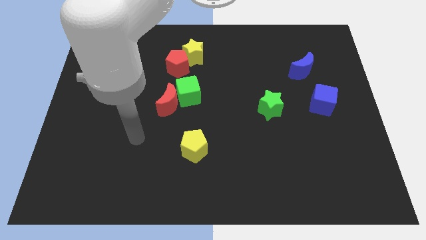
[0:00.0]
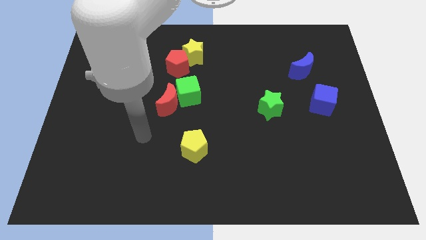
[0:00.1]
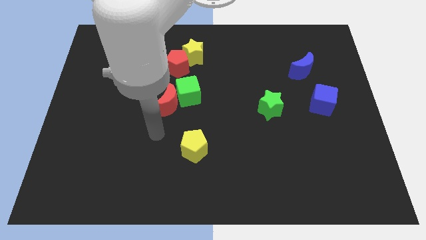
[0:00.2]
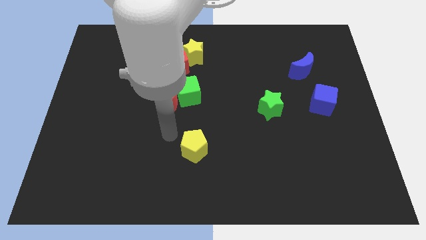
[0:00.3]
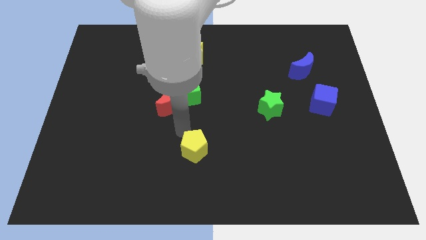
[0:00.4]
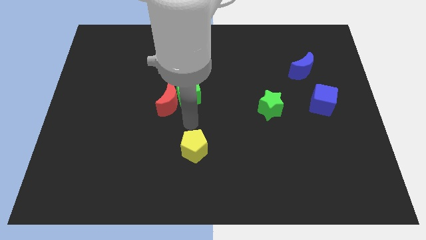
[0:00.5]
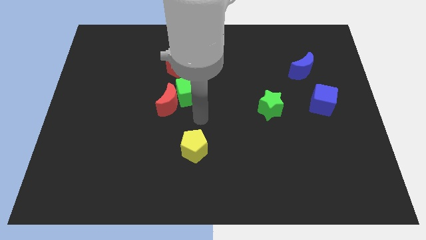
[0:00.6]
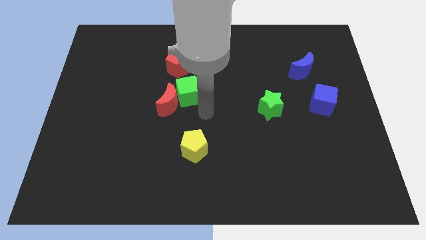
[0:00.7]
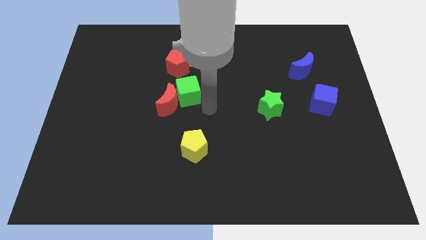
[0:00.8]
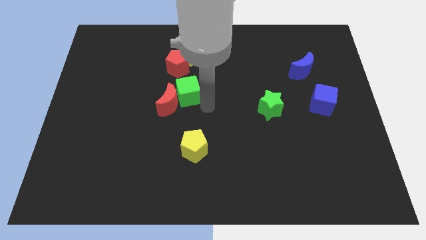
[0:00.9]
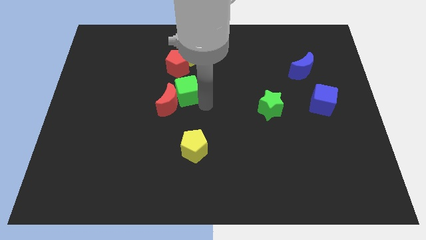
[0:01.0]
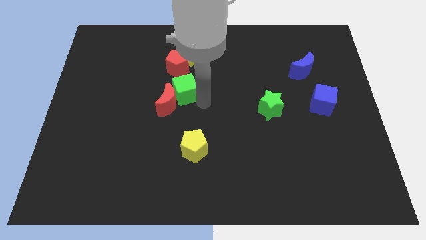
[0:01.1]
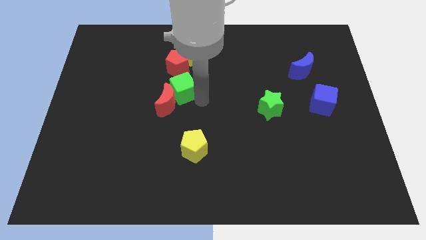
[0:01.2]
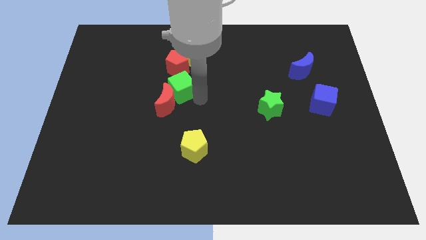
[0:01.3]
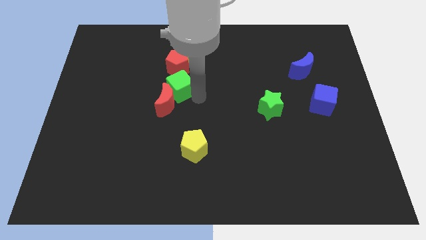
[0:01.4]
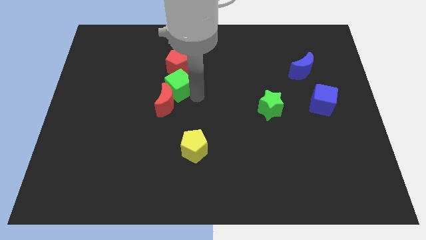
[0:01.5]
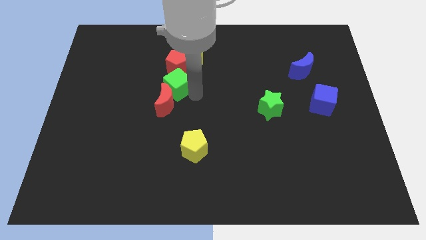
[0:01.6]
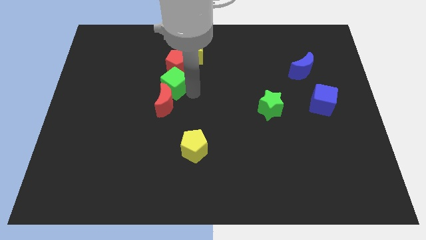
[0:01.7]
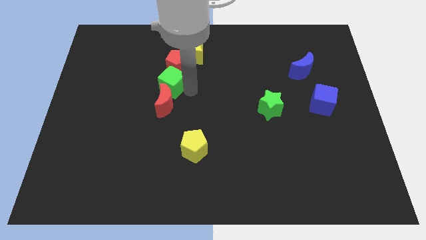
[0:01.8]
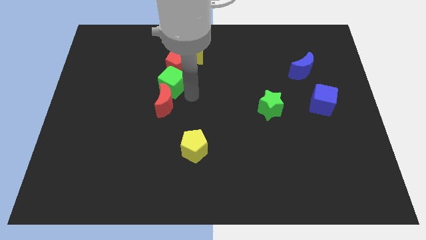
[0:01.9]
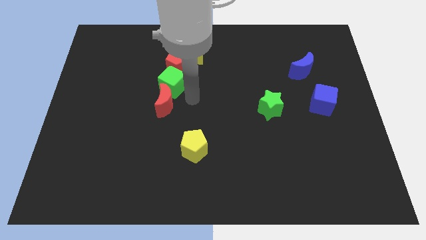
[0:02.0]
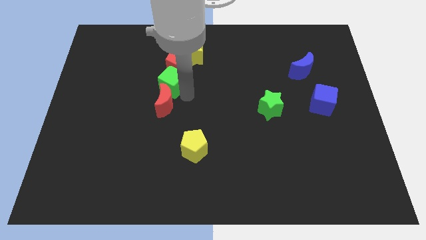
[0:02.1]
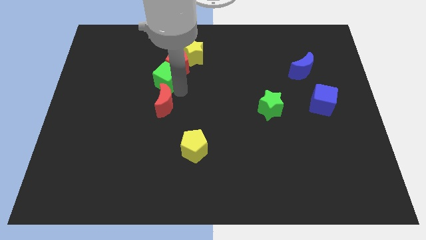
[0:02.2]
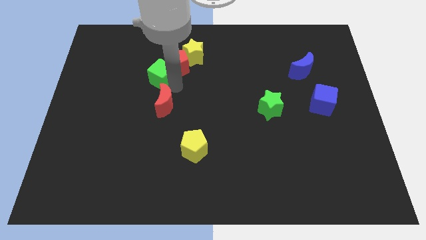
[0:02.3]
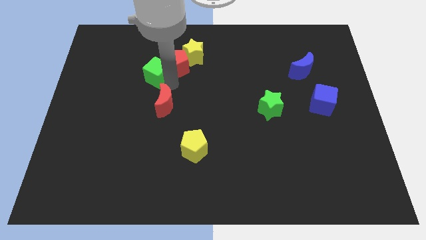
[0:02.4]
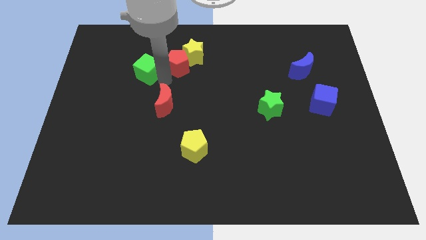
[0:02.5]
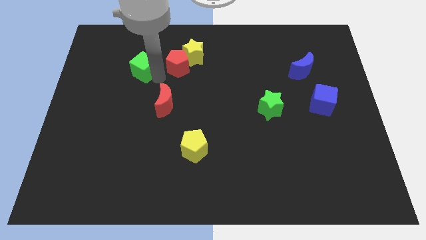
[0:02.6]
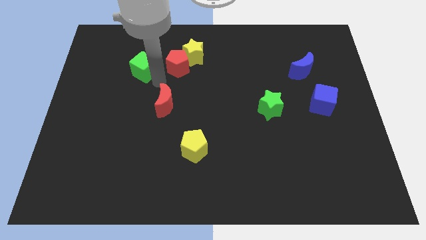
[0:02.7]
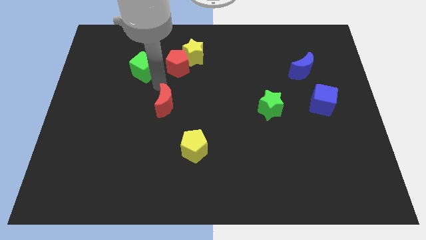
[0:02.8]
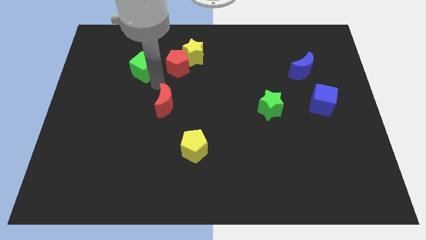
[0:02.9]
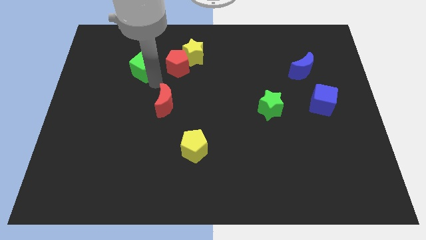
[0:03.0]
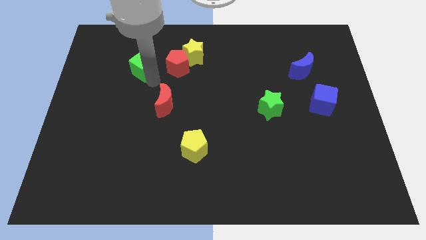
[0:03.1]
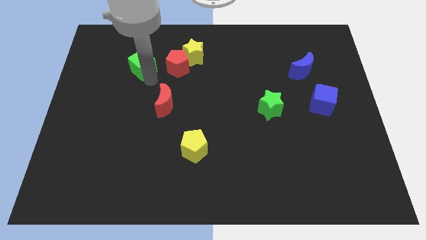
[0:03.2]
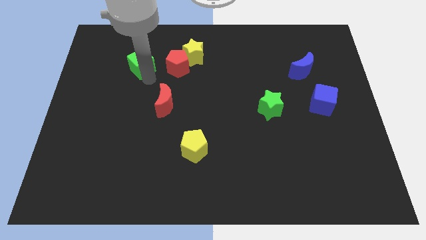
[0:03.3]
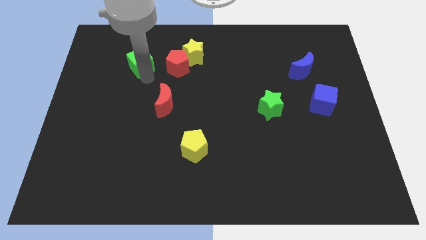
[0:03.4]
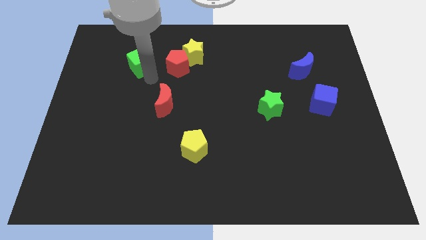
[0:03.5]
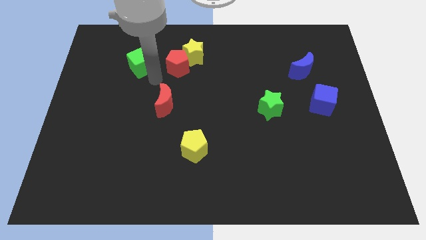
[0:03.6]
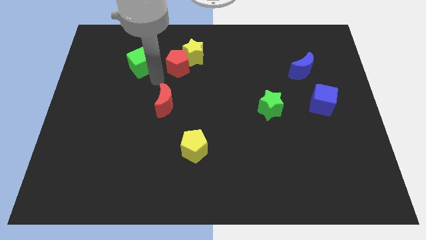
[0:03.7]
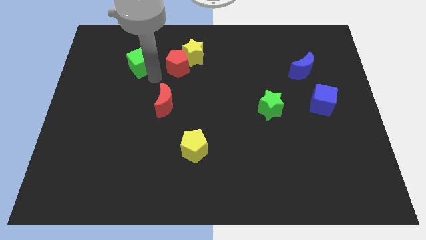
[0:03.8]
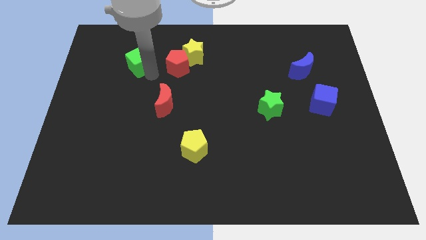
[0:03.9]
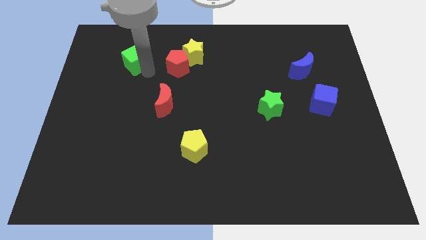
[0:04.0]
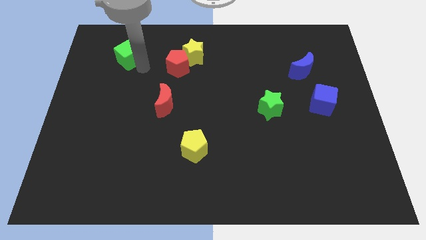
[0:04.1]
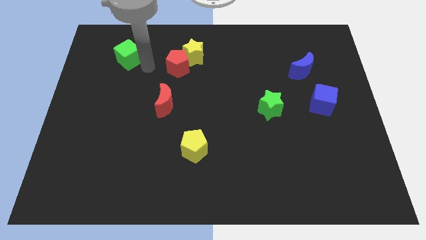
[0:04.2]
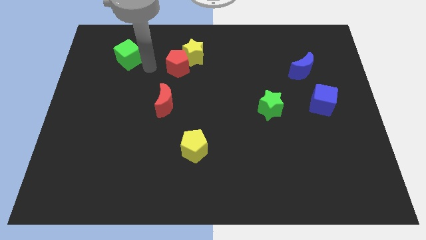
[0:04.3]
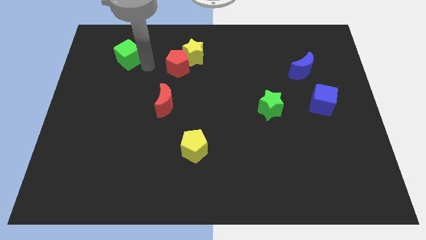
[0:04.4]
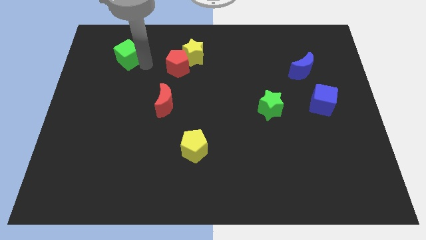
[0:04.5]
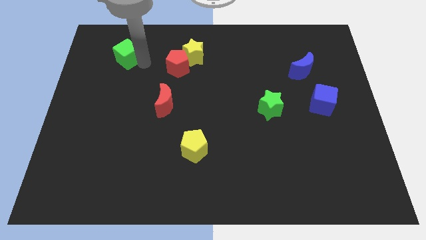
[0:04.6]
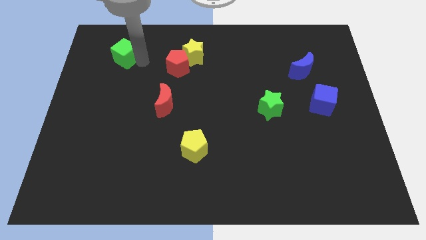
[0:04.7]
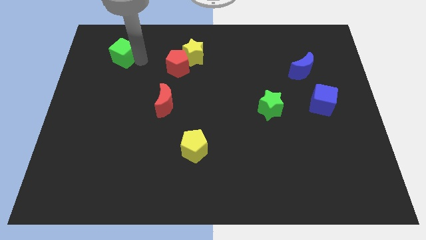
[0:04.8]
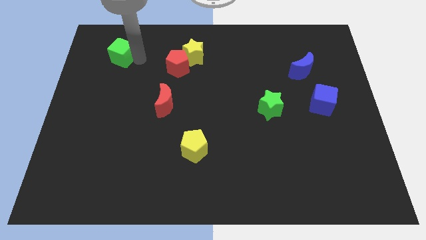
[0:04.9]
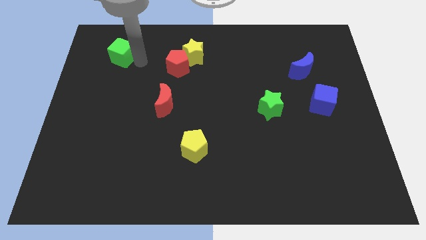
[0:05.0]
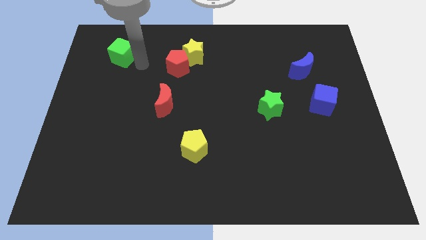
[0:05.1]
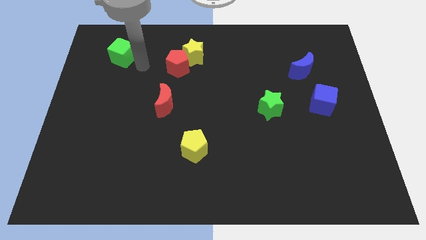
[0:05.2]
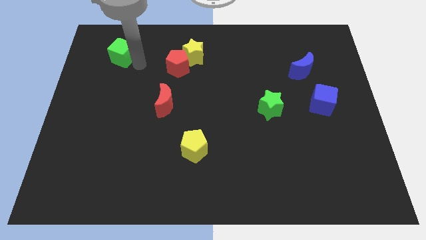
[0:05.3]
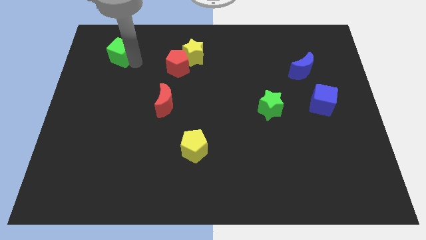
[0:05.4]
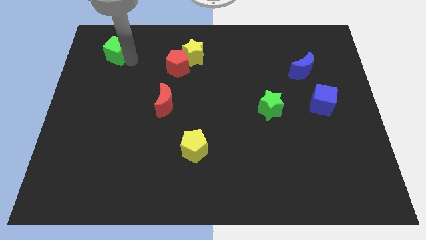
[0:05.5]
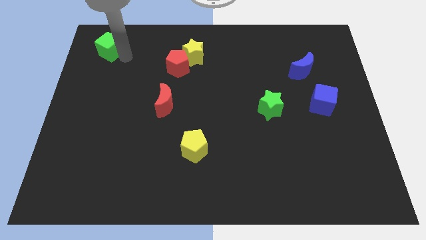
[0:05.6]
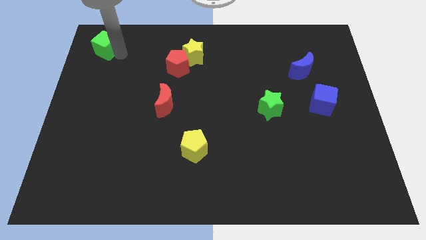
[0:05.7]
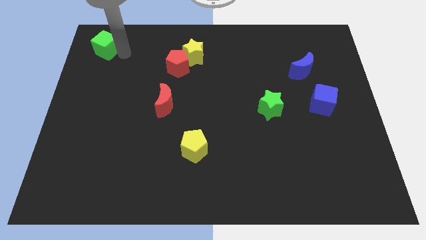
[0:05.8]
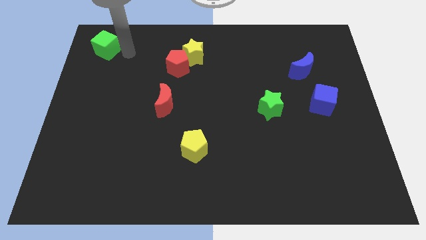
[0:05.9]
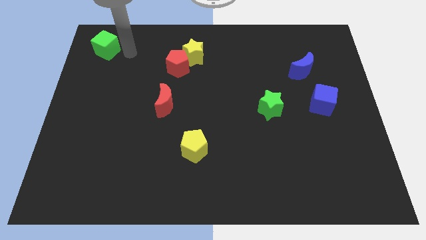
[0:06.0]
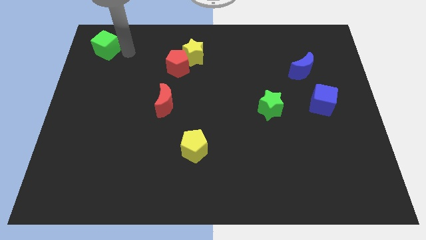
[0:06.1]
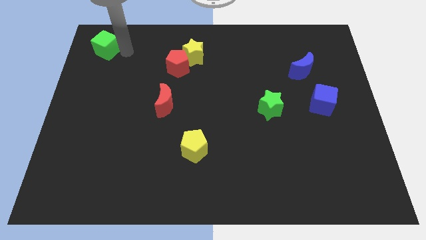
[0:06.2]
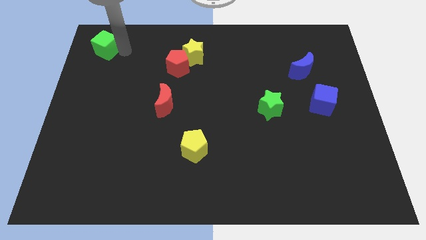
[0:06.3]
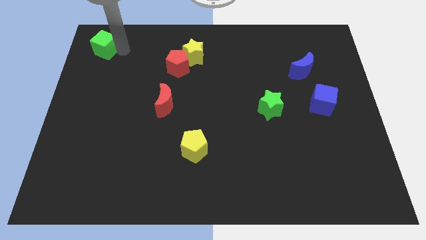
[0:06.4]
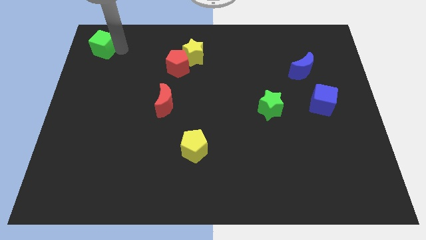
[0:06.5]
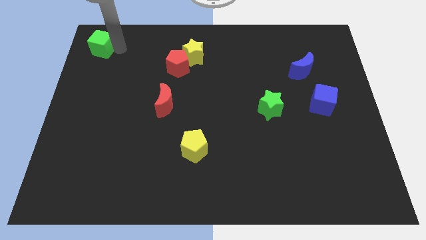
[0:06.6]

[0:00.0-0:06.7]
push the green cube to the top left corner

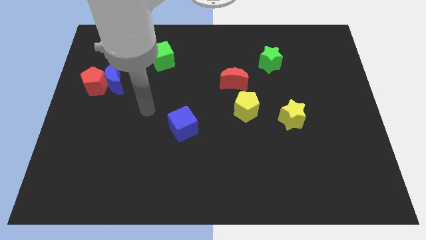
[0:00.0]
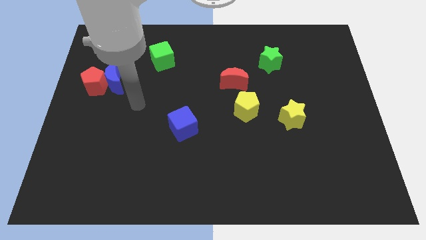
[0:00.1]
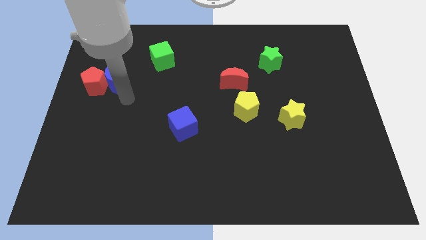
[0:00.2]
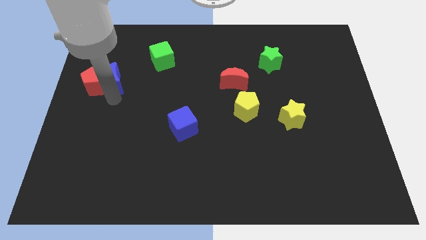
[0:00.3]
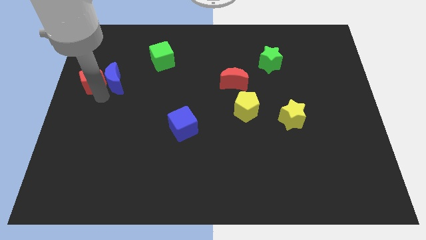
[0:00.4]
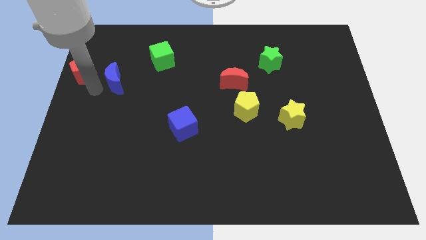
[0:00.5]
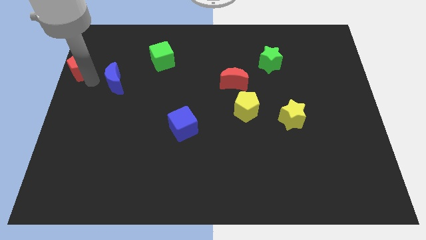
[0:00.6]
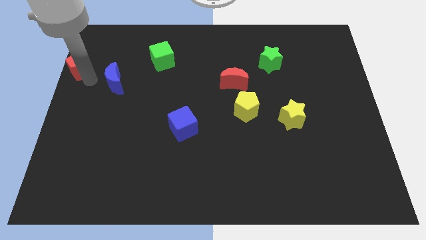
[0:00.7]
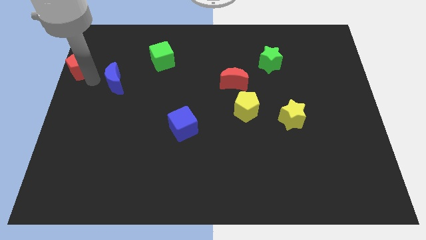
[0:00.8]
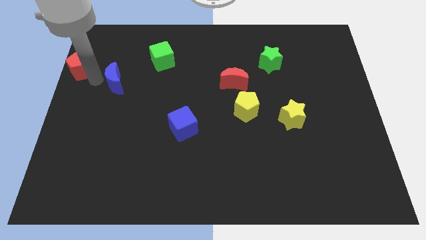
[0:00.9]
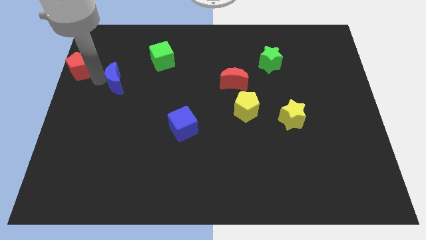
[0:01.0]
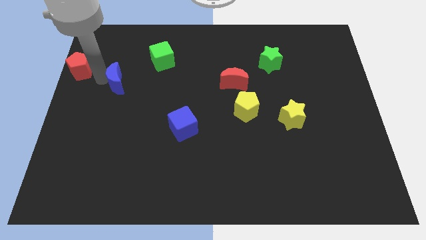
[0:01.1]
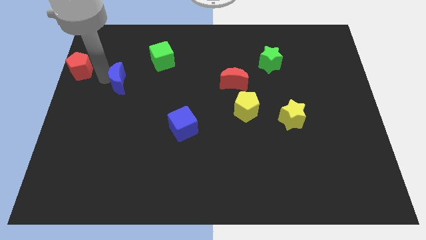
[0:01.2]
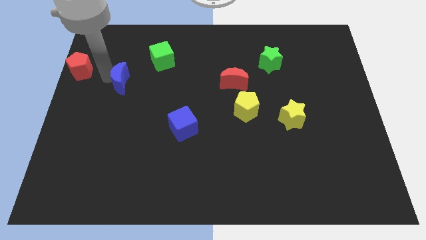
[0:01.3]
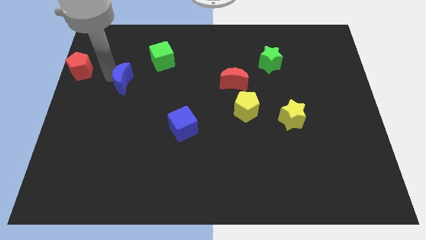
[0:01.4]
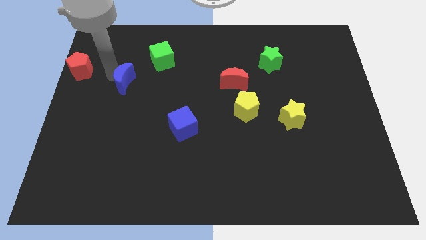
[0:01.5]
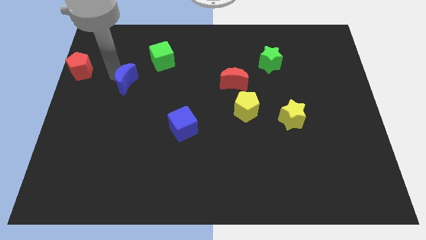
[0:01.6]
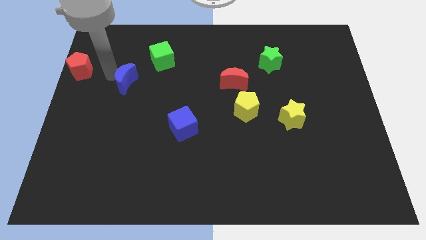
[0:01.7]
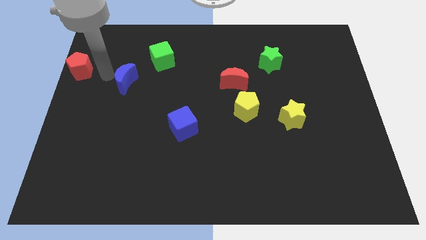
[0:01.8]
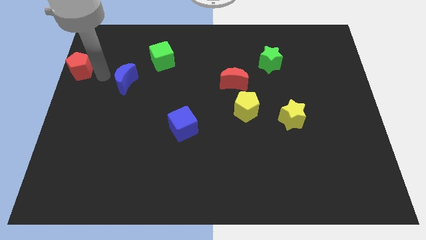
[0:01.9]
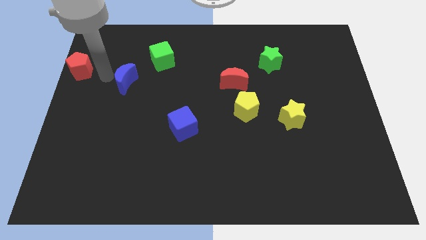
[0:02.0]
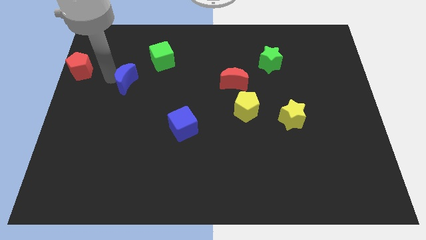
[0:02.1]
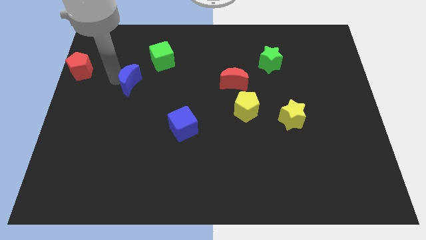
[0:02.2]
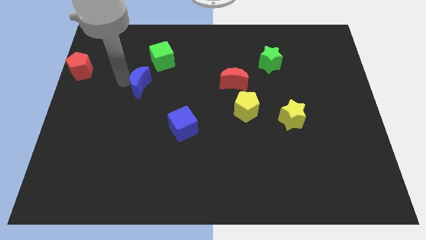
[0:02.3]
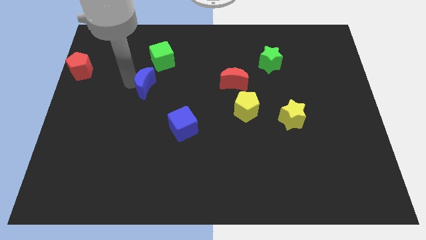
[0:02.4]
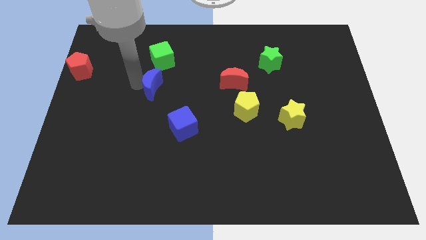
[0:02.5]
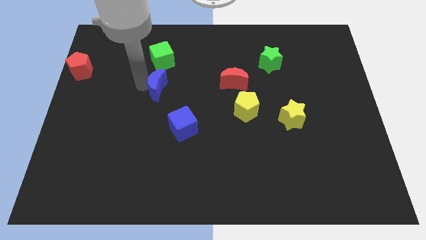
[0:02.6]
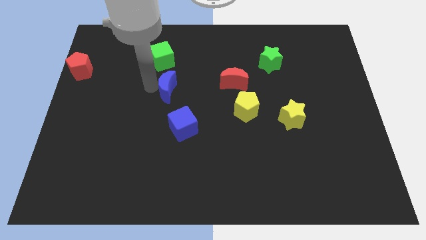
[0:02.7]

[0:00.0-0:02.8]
move the blue moon to the middle of the board
